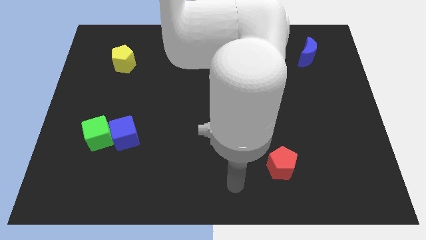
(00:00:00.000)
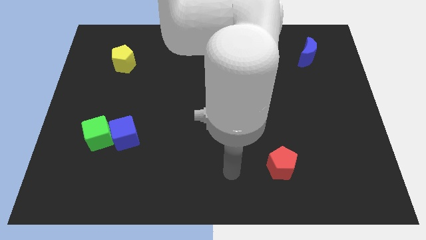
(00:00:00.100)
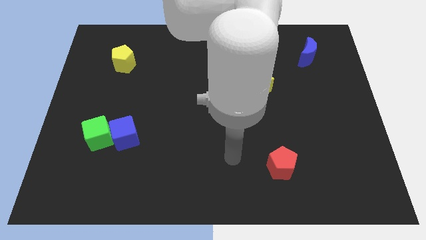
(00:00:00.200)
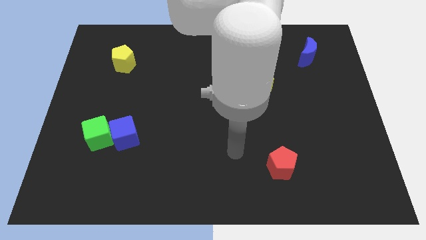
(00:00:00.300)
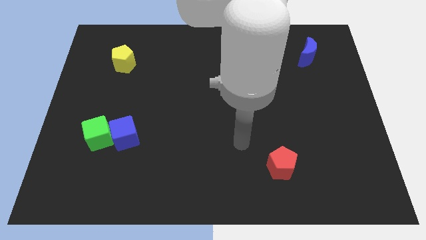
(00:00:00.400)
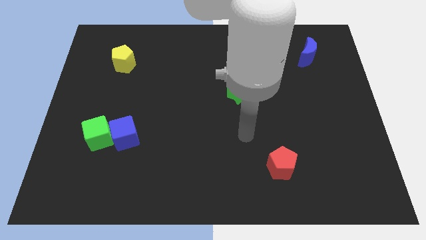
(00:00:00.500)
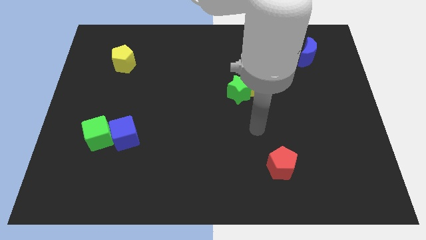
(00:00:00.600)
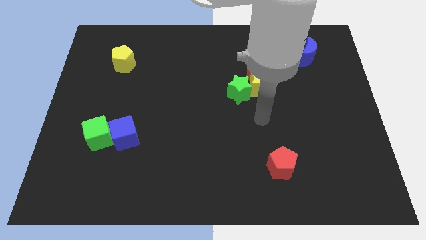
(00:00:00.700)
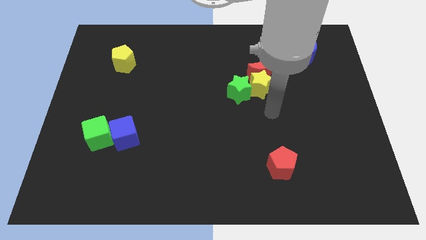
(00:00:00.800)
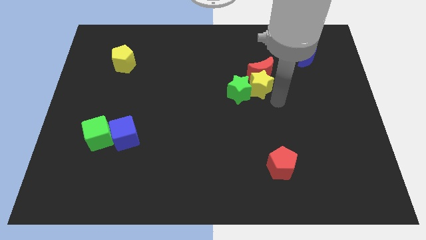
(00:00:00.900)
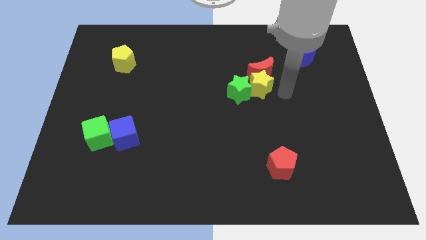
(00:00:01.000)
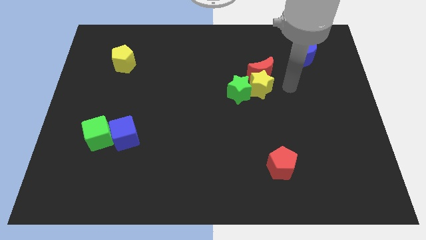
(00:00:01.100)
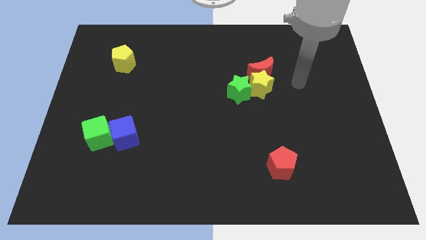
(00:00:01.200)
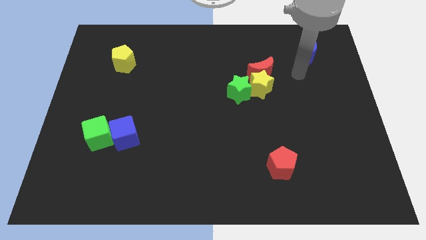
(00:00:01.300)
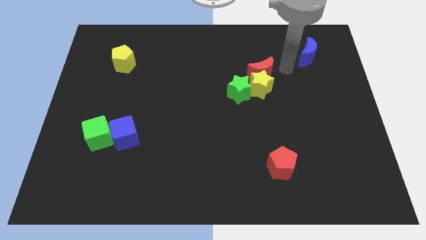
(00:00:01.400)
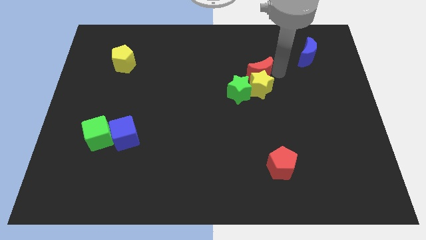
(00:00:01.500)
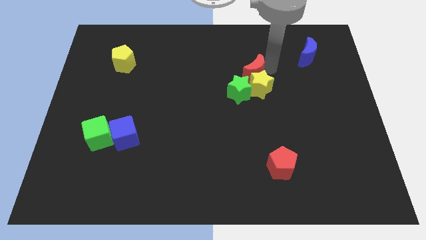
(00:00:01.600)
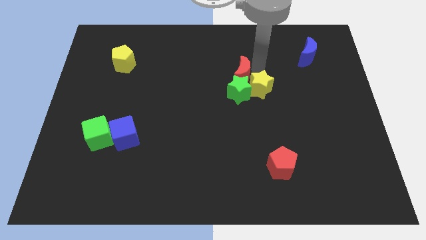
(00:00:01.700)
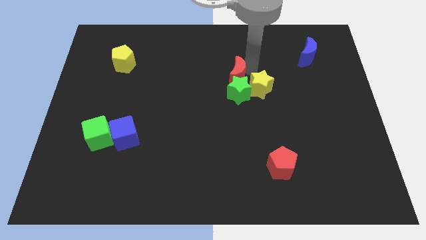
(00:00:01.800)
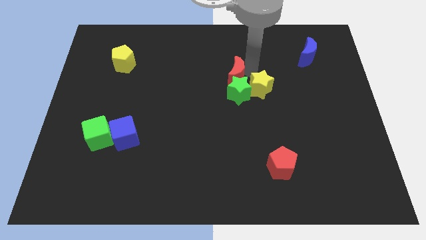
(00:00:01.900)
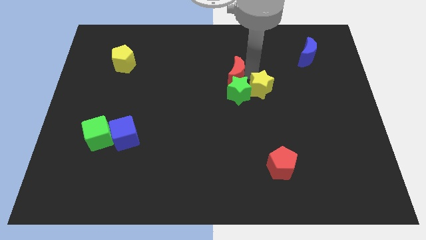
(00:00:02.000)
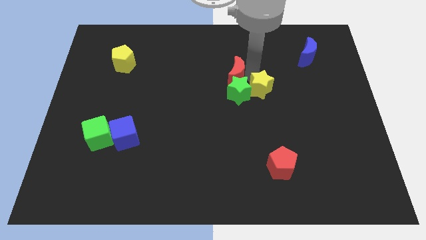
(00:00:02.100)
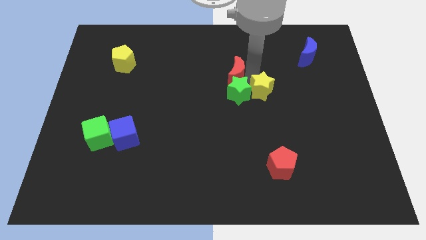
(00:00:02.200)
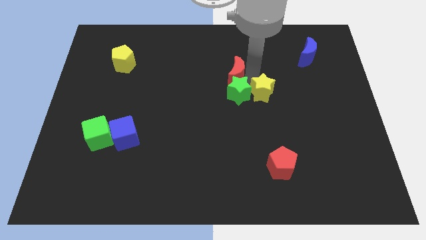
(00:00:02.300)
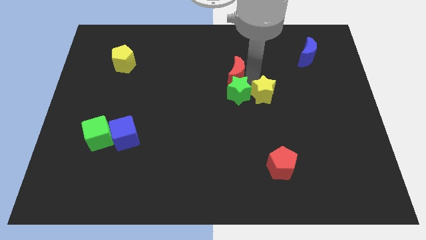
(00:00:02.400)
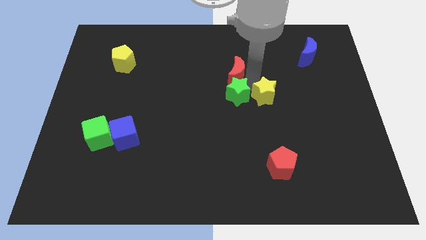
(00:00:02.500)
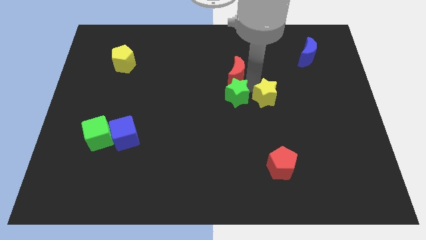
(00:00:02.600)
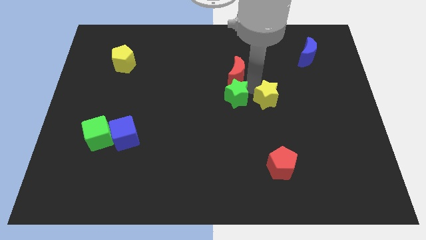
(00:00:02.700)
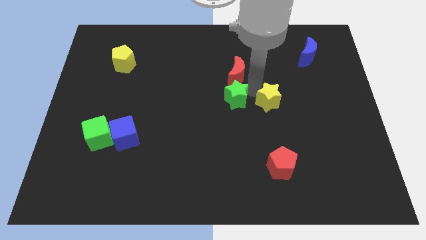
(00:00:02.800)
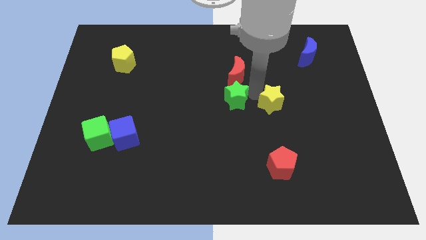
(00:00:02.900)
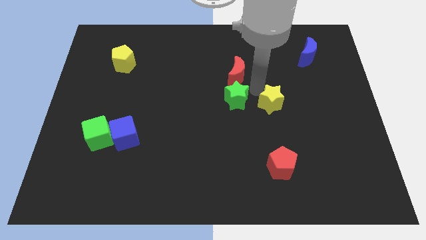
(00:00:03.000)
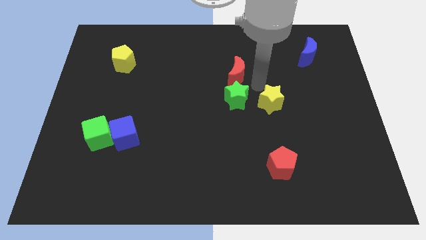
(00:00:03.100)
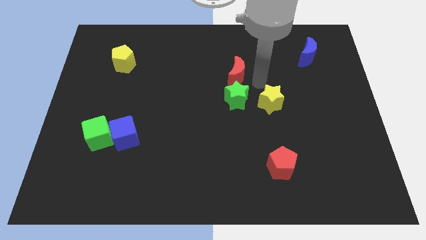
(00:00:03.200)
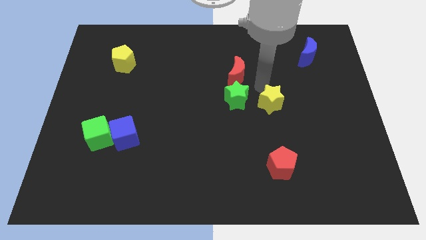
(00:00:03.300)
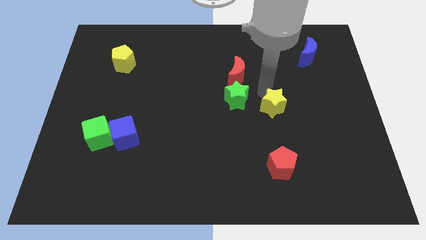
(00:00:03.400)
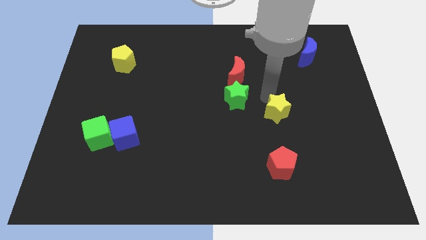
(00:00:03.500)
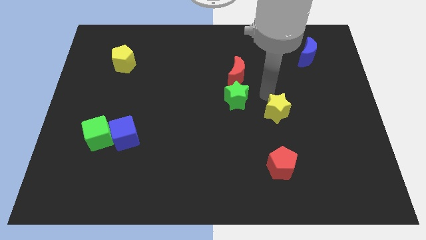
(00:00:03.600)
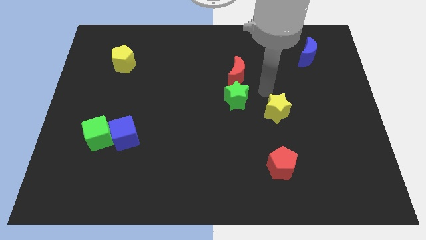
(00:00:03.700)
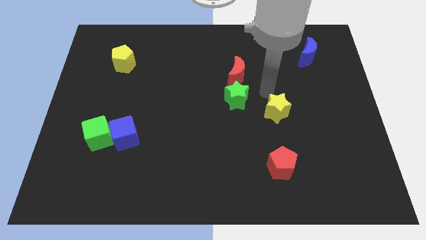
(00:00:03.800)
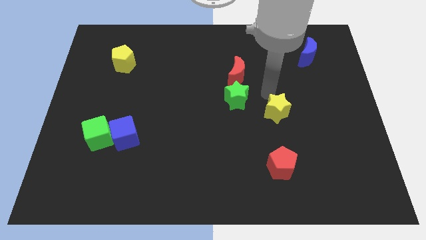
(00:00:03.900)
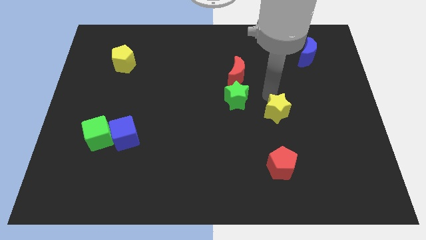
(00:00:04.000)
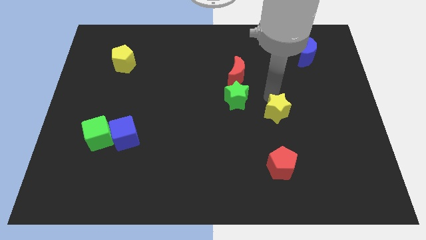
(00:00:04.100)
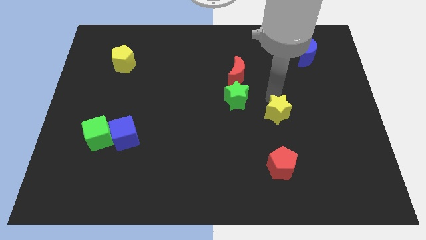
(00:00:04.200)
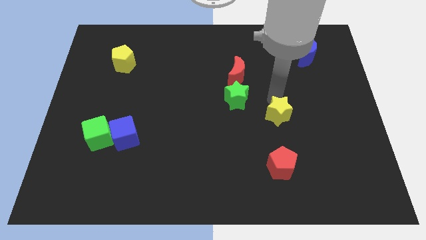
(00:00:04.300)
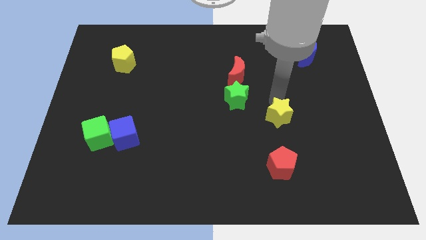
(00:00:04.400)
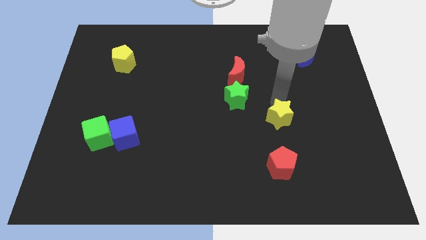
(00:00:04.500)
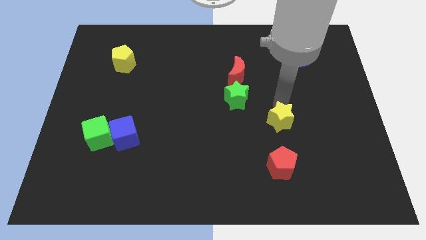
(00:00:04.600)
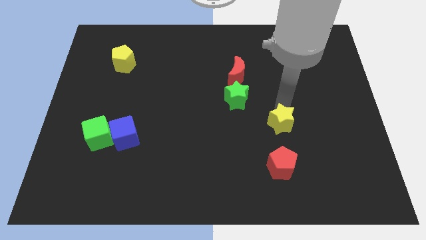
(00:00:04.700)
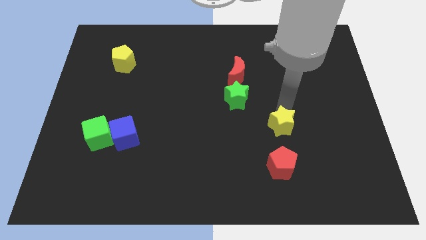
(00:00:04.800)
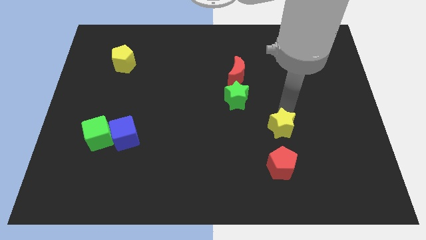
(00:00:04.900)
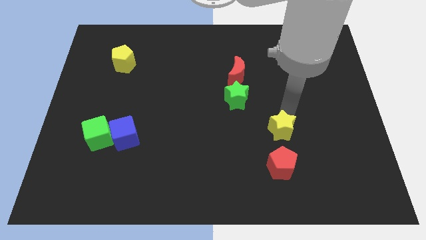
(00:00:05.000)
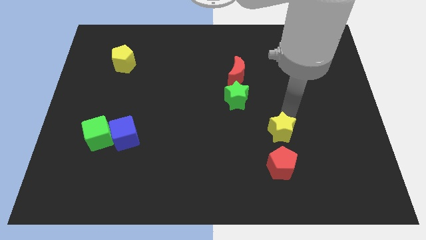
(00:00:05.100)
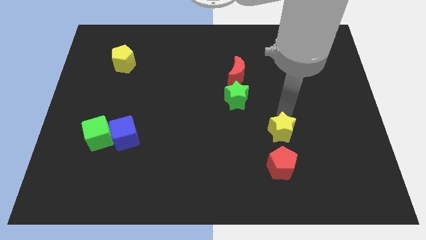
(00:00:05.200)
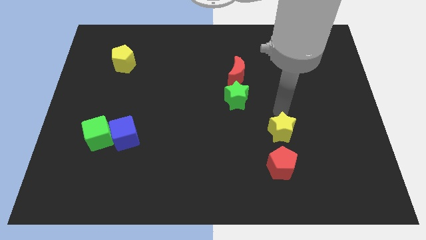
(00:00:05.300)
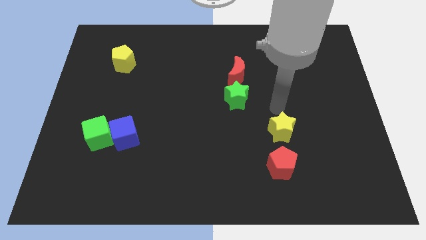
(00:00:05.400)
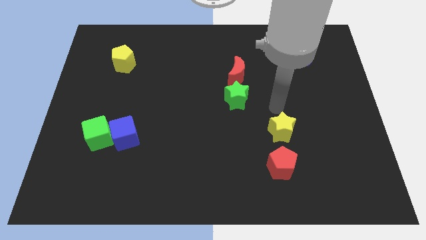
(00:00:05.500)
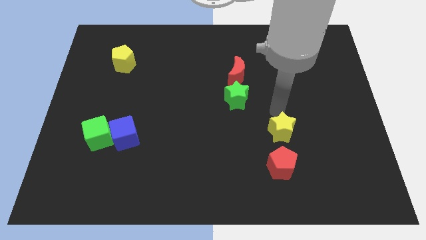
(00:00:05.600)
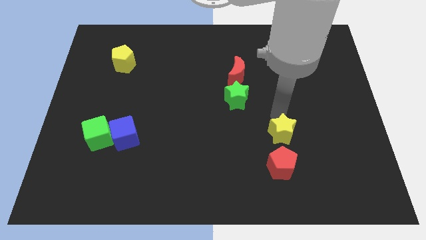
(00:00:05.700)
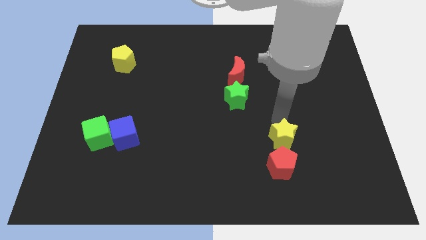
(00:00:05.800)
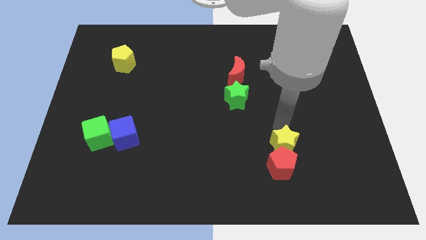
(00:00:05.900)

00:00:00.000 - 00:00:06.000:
move the yellow star to the red pentagon

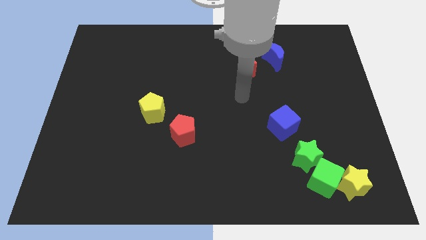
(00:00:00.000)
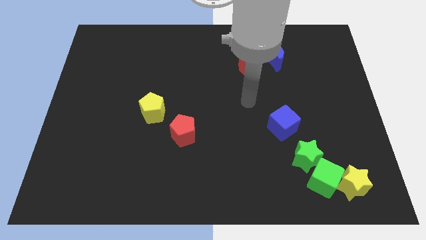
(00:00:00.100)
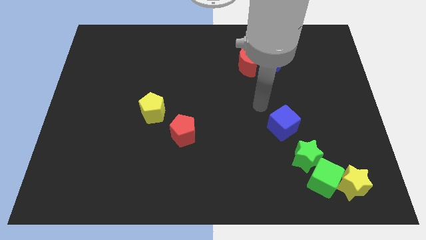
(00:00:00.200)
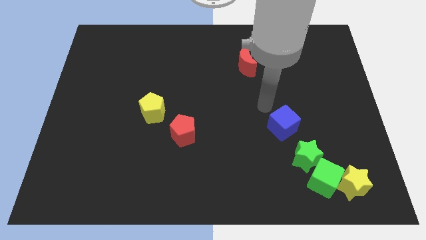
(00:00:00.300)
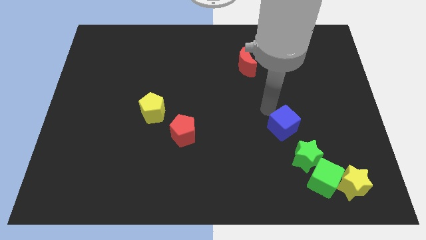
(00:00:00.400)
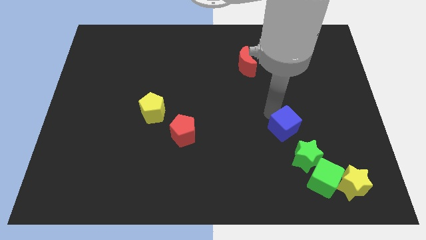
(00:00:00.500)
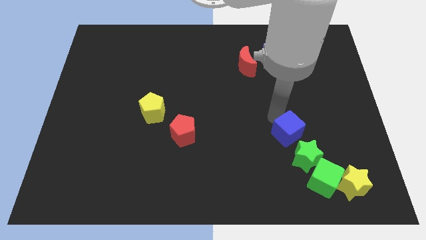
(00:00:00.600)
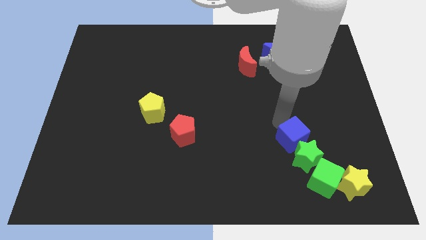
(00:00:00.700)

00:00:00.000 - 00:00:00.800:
push the blue cube close to the green star

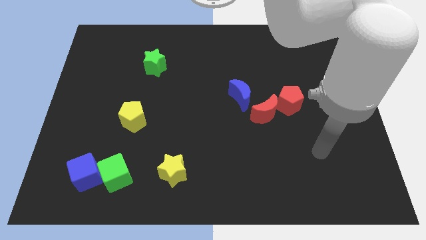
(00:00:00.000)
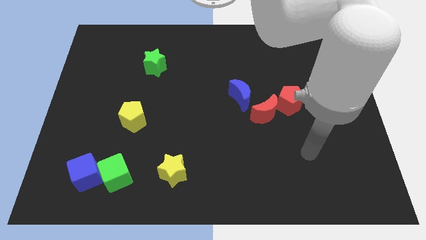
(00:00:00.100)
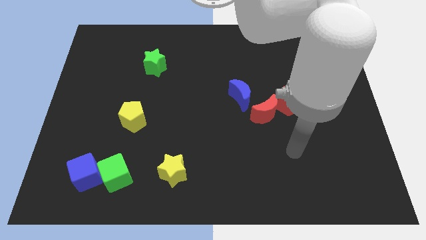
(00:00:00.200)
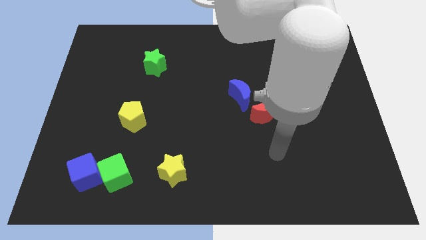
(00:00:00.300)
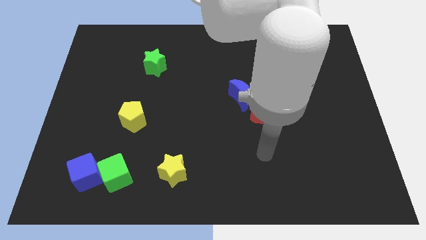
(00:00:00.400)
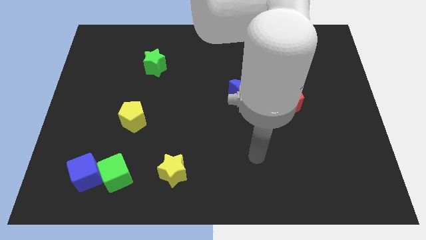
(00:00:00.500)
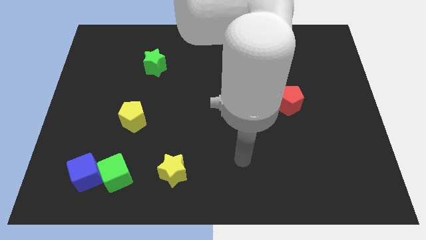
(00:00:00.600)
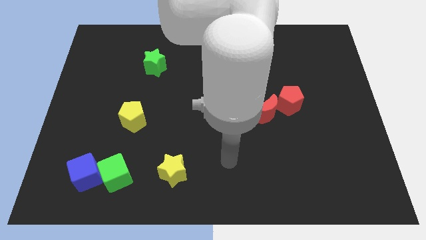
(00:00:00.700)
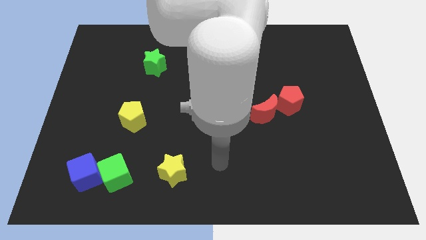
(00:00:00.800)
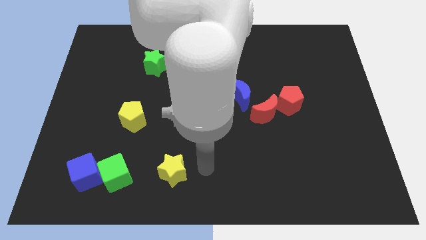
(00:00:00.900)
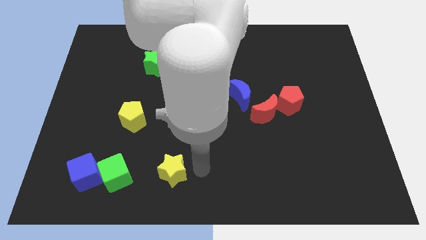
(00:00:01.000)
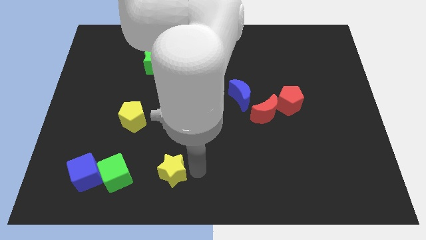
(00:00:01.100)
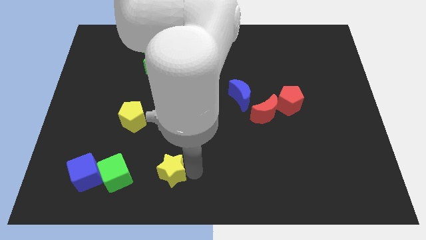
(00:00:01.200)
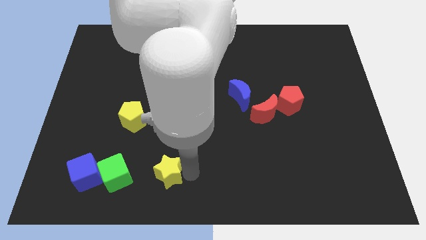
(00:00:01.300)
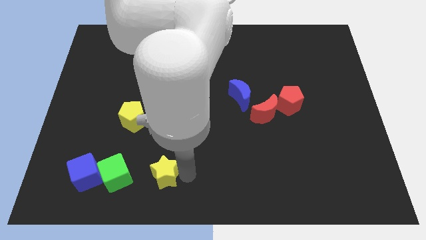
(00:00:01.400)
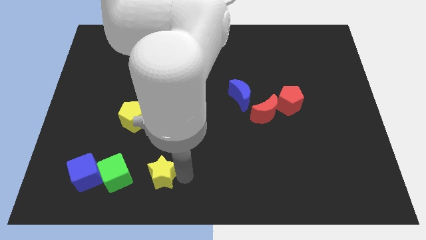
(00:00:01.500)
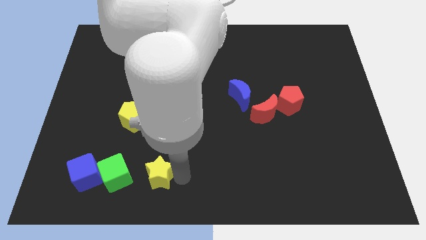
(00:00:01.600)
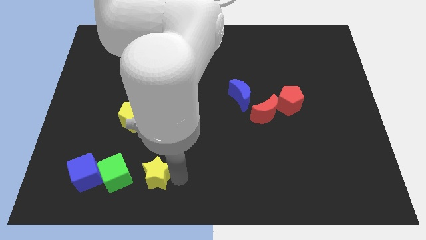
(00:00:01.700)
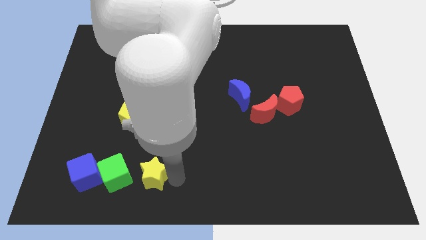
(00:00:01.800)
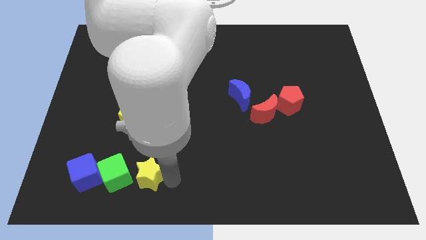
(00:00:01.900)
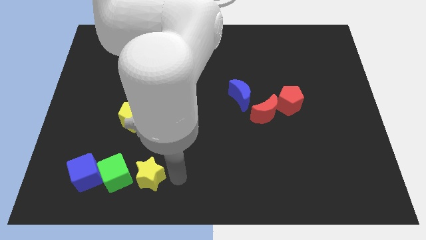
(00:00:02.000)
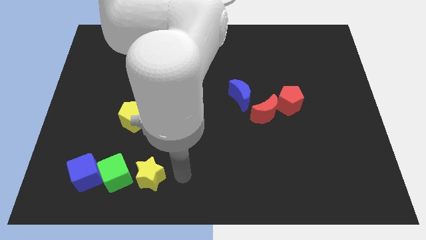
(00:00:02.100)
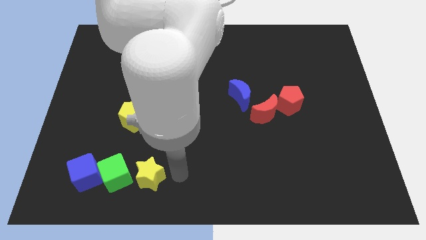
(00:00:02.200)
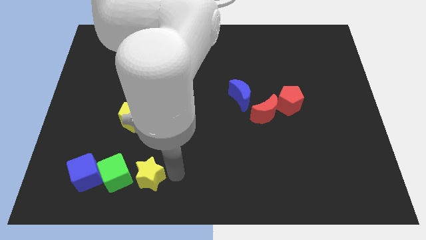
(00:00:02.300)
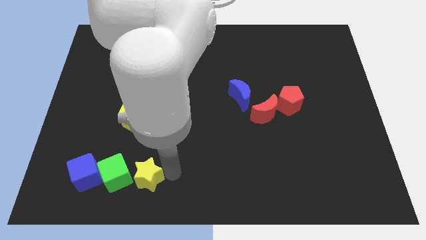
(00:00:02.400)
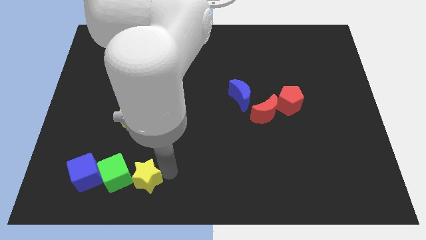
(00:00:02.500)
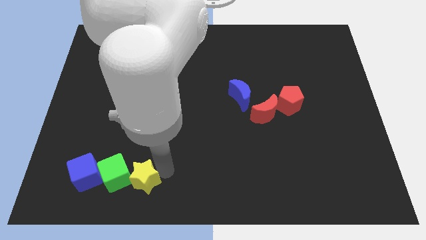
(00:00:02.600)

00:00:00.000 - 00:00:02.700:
move the yellow star next to the green cube
